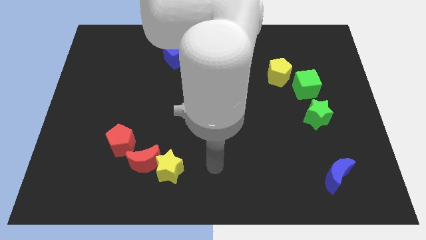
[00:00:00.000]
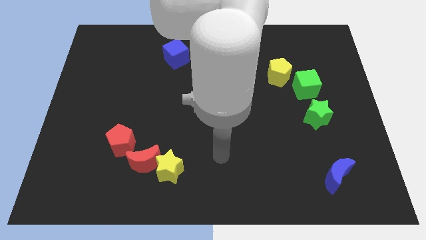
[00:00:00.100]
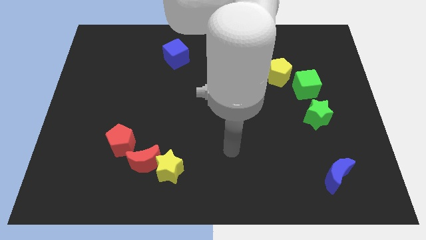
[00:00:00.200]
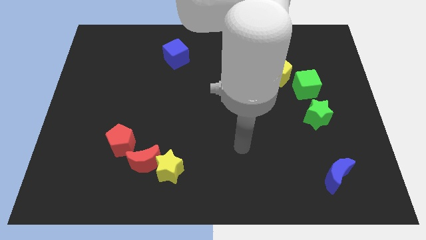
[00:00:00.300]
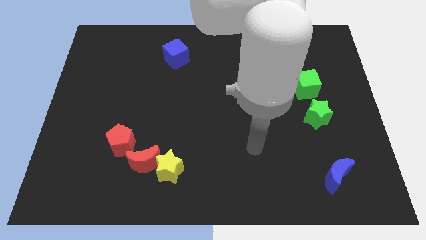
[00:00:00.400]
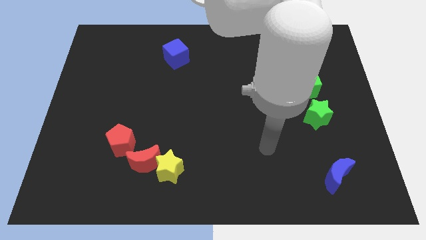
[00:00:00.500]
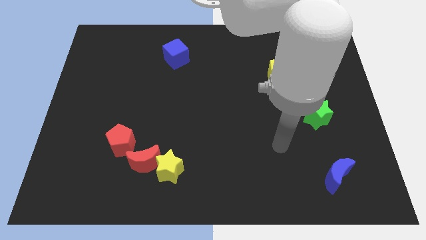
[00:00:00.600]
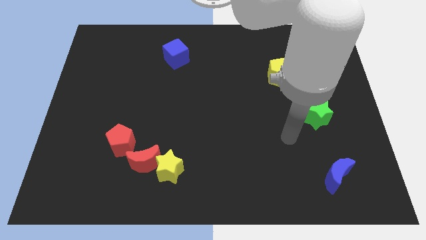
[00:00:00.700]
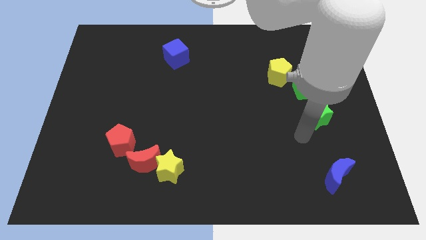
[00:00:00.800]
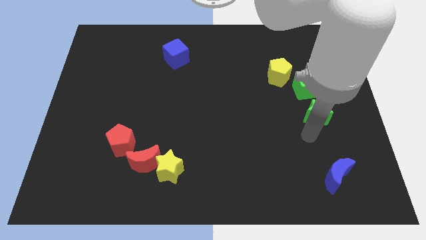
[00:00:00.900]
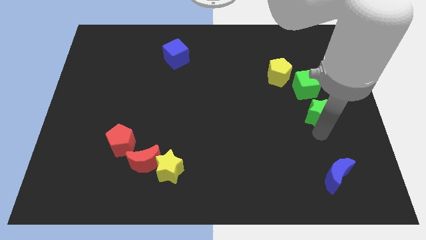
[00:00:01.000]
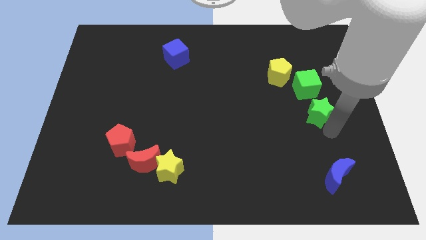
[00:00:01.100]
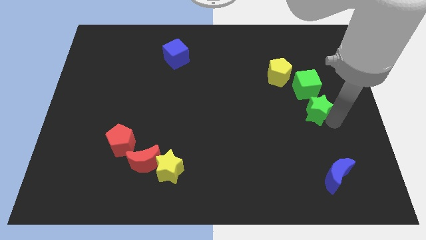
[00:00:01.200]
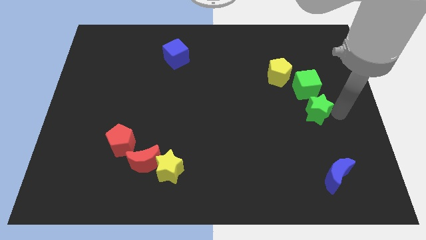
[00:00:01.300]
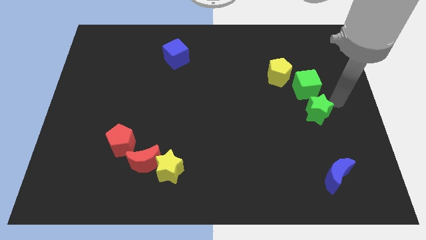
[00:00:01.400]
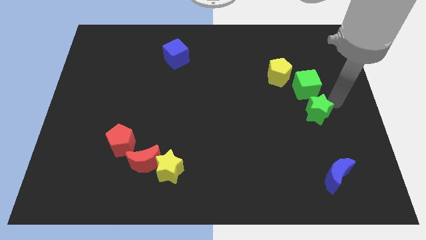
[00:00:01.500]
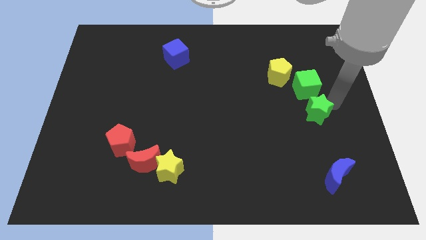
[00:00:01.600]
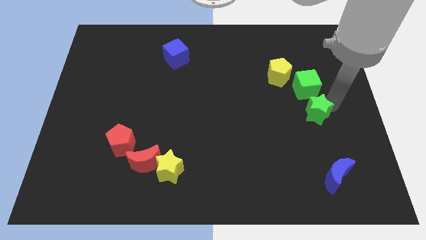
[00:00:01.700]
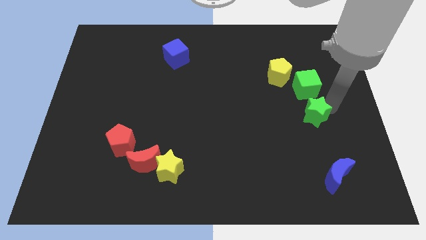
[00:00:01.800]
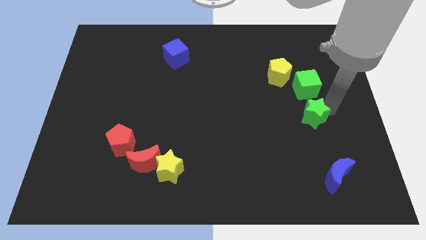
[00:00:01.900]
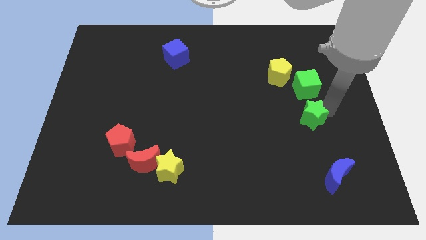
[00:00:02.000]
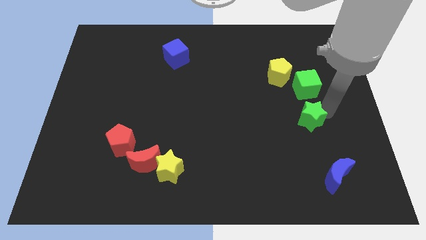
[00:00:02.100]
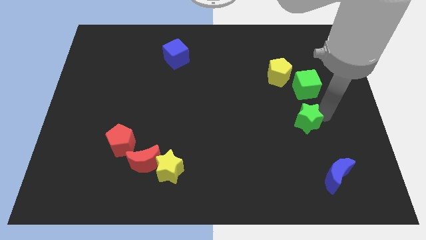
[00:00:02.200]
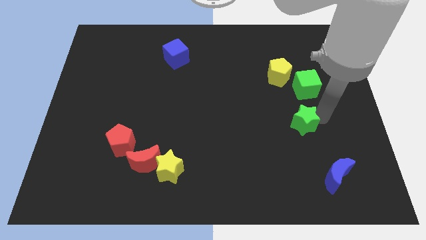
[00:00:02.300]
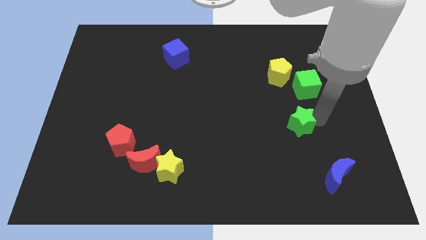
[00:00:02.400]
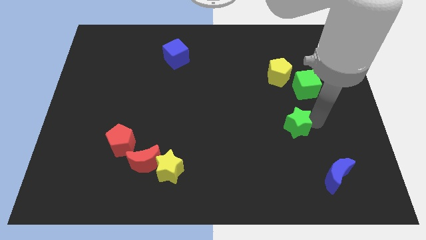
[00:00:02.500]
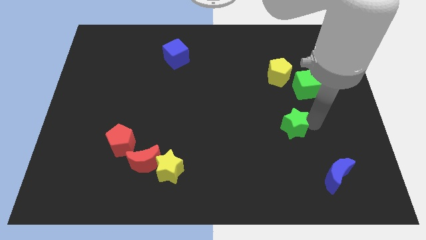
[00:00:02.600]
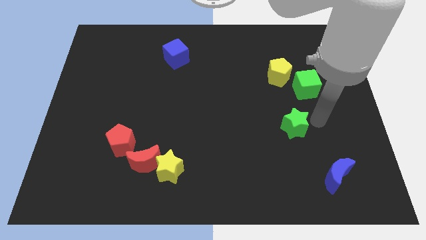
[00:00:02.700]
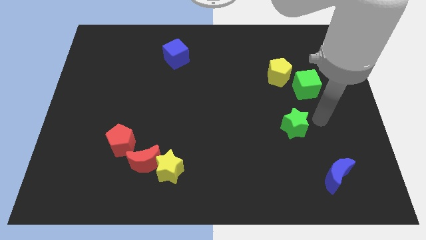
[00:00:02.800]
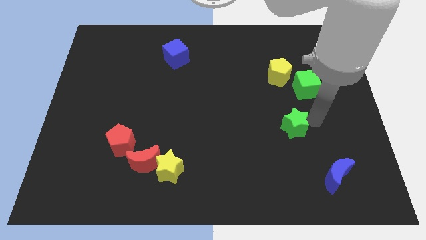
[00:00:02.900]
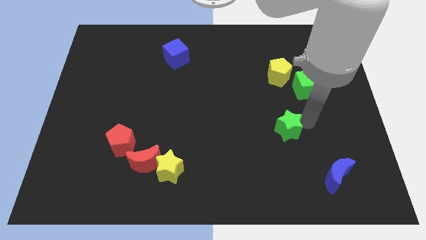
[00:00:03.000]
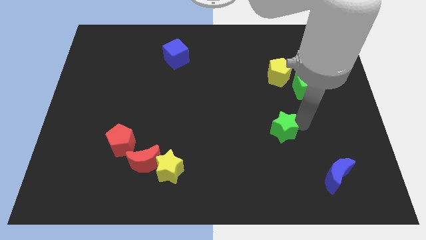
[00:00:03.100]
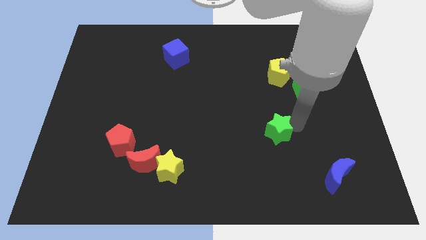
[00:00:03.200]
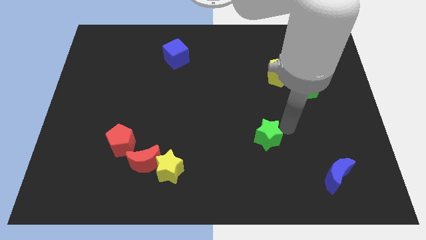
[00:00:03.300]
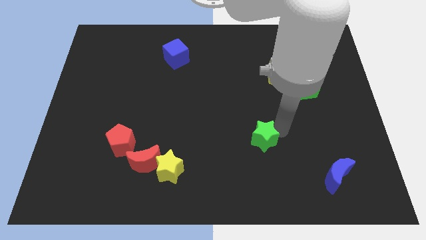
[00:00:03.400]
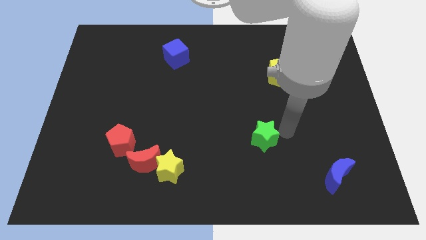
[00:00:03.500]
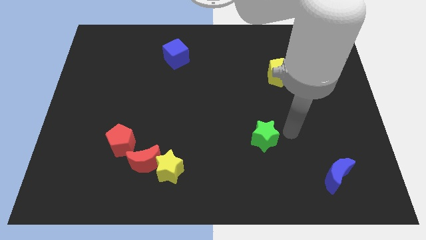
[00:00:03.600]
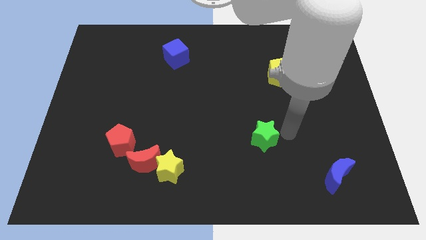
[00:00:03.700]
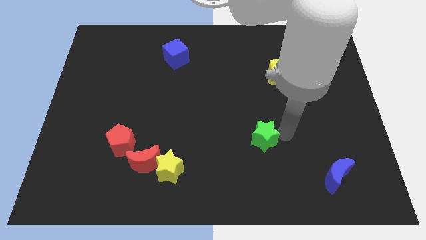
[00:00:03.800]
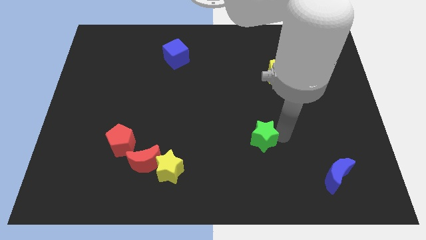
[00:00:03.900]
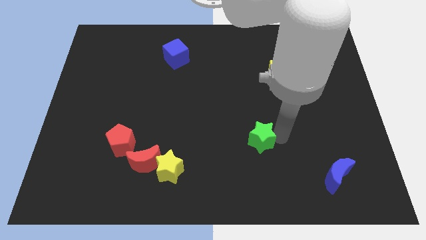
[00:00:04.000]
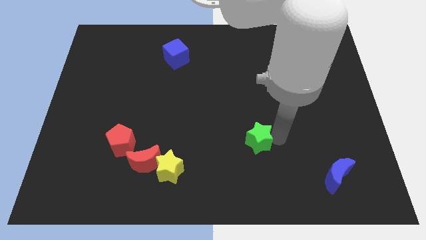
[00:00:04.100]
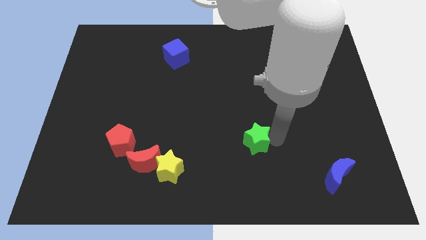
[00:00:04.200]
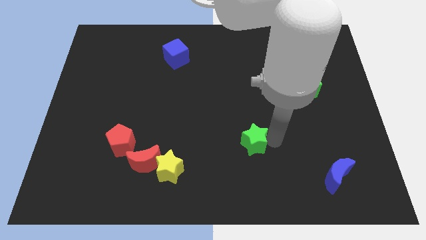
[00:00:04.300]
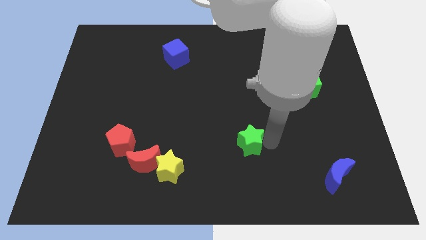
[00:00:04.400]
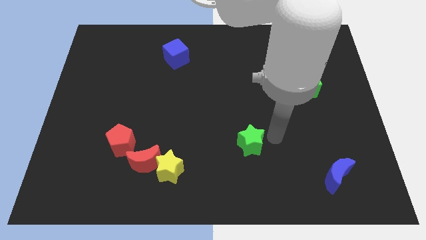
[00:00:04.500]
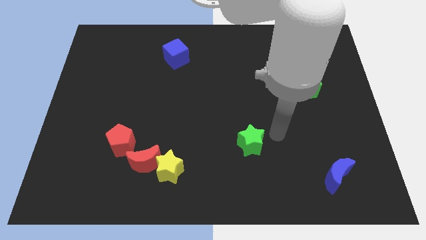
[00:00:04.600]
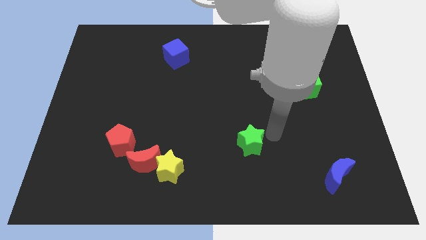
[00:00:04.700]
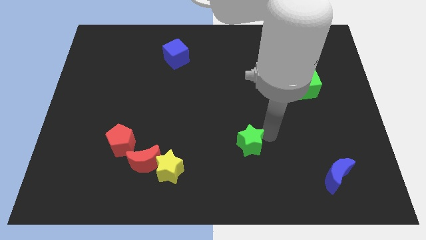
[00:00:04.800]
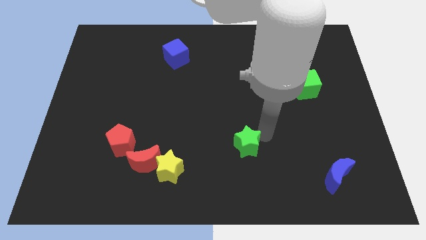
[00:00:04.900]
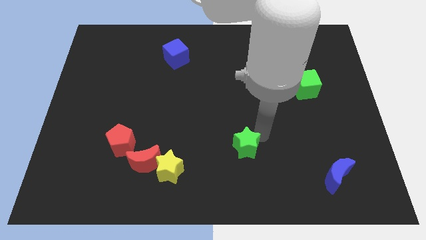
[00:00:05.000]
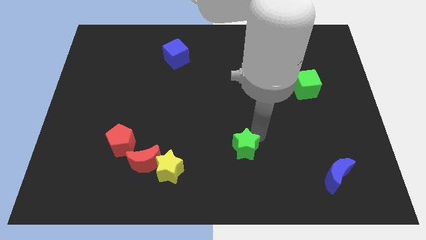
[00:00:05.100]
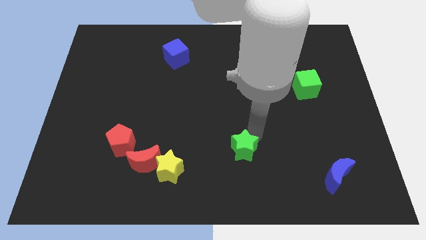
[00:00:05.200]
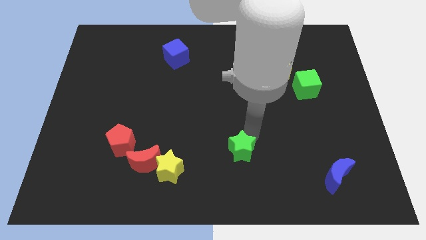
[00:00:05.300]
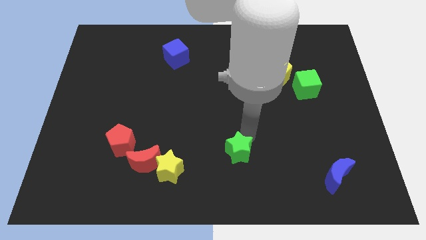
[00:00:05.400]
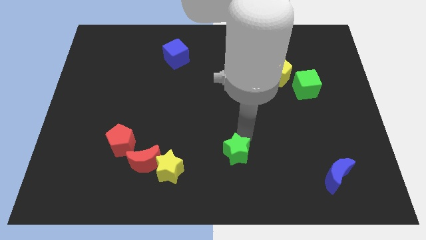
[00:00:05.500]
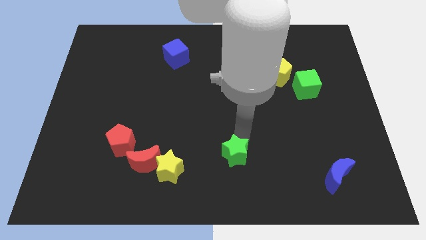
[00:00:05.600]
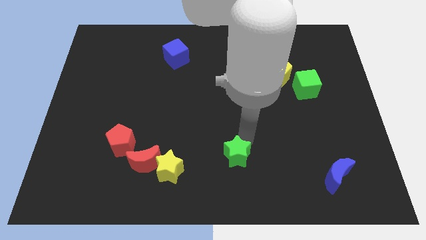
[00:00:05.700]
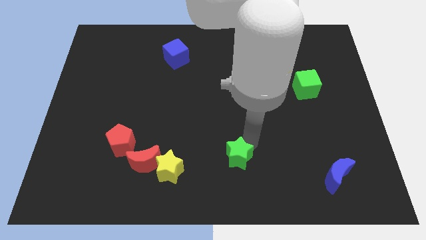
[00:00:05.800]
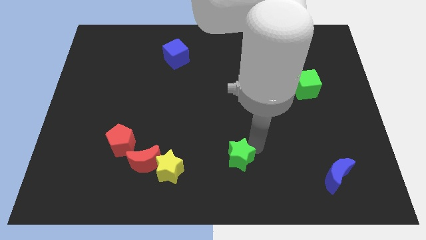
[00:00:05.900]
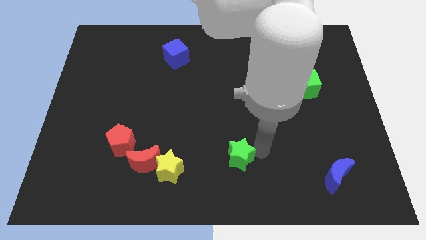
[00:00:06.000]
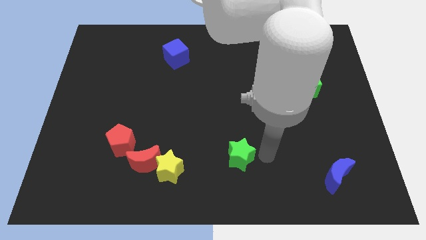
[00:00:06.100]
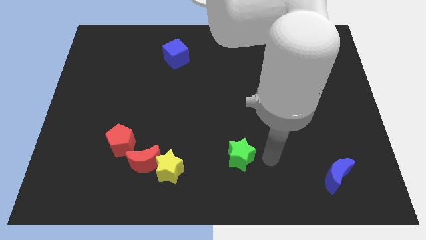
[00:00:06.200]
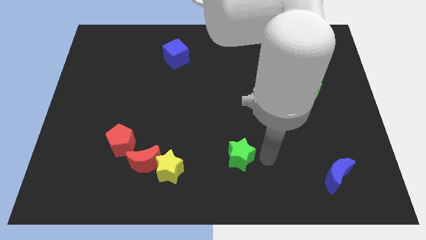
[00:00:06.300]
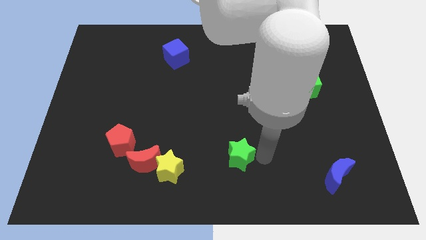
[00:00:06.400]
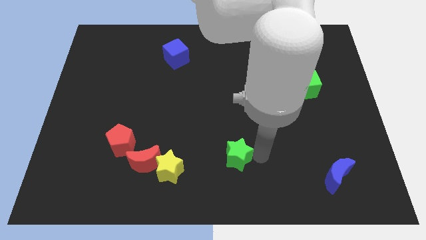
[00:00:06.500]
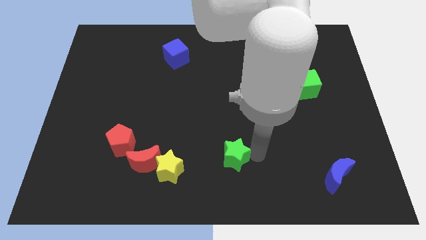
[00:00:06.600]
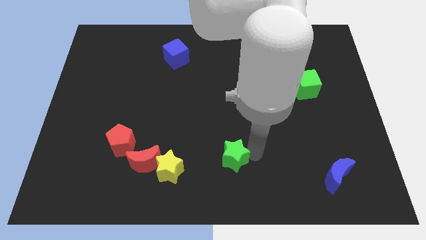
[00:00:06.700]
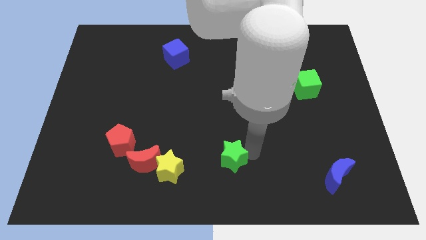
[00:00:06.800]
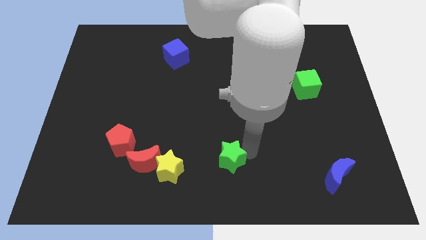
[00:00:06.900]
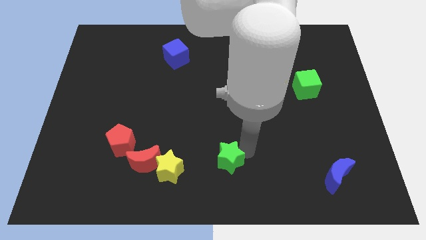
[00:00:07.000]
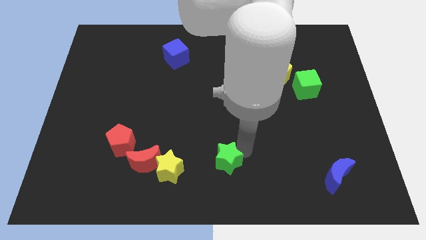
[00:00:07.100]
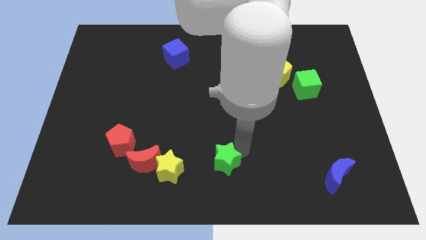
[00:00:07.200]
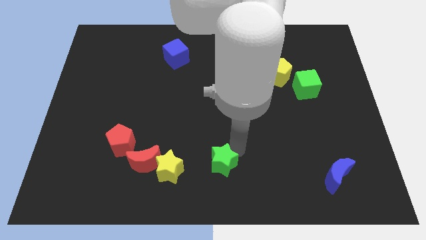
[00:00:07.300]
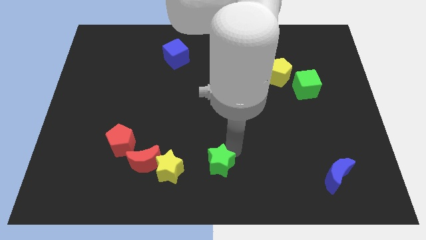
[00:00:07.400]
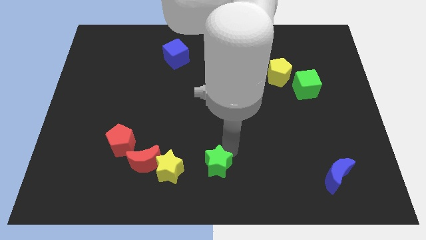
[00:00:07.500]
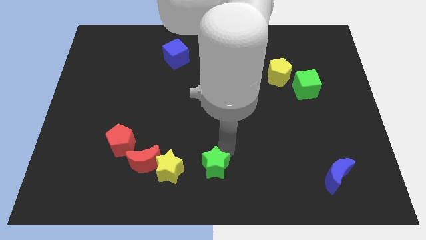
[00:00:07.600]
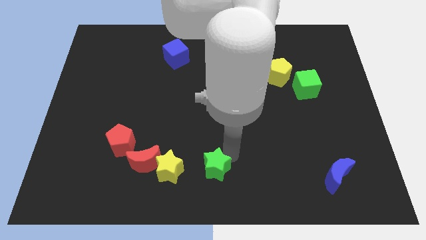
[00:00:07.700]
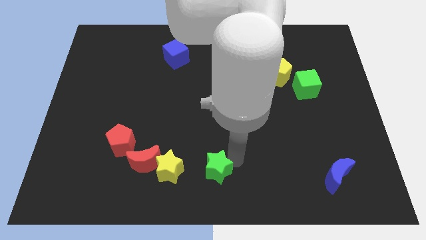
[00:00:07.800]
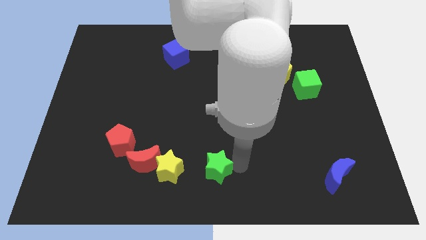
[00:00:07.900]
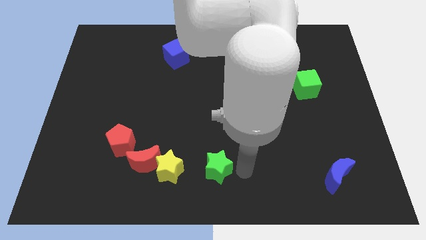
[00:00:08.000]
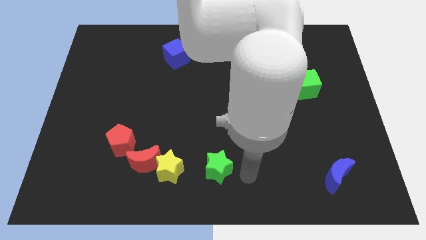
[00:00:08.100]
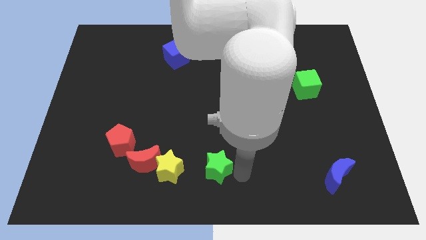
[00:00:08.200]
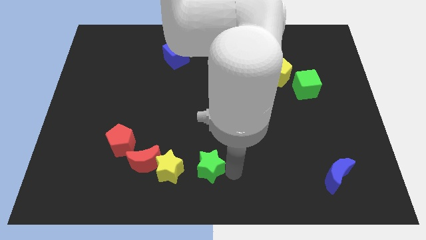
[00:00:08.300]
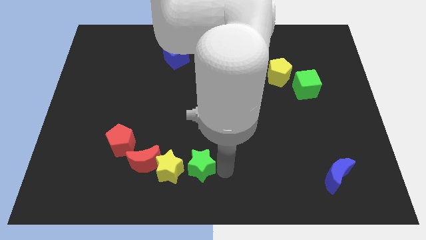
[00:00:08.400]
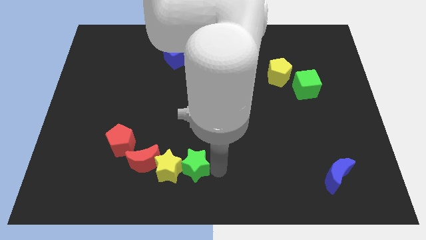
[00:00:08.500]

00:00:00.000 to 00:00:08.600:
move the green star next to the yellow star
